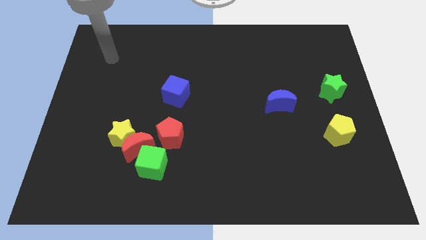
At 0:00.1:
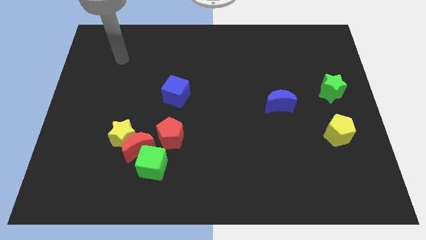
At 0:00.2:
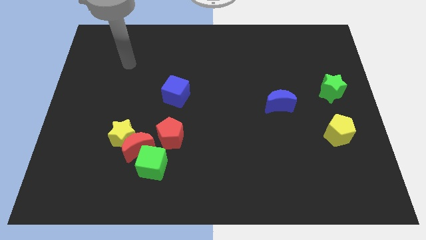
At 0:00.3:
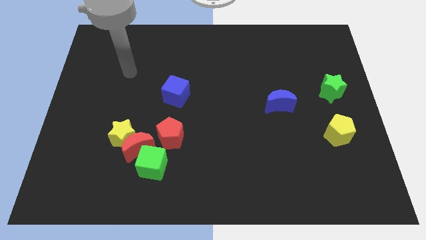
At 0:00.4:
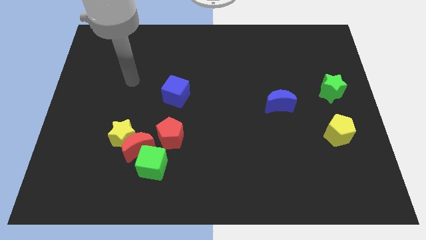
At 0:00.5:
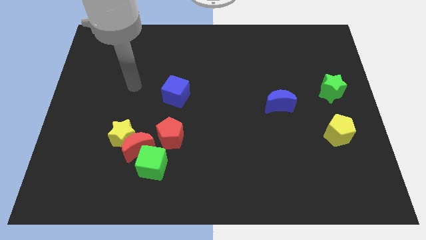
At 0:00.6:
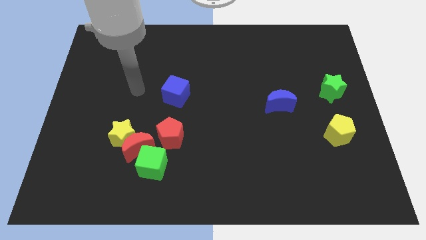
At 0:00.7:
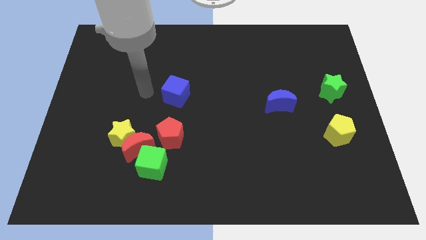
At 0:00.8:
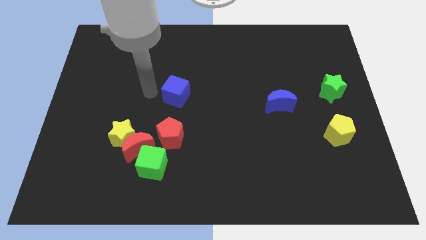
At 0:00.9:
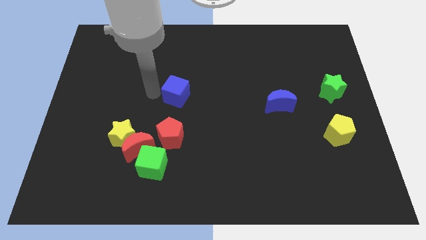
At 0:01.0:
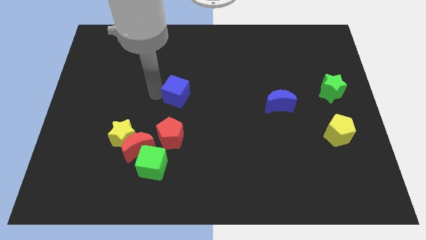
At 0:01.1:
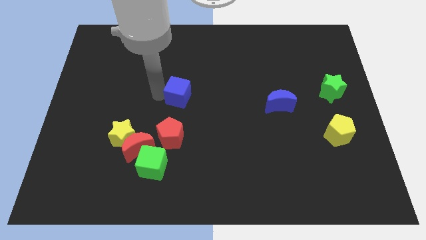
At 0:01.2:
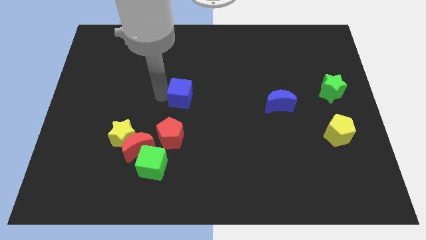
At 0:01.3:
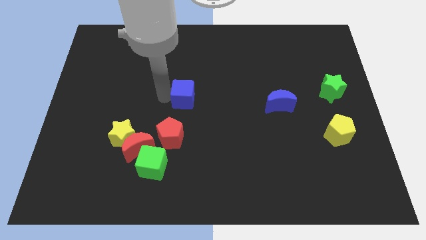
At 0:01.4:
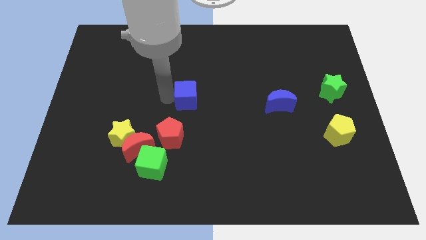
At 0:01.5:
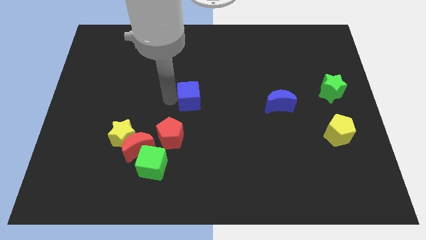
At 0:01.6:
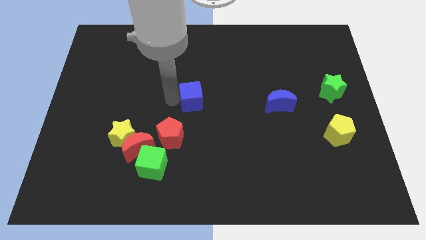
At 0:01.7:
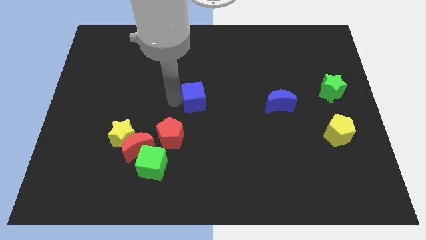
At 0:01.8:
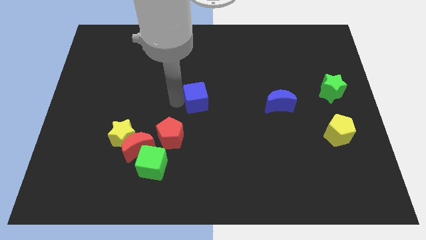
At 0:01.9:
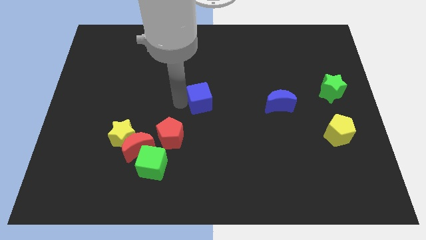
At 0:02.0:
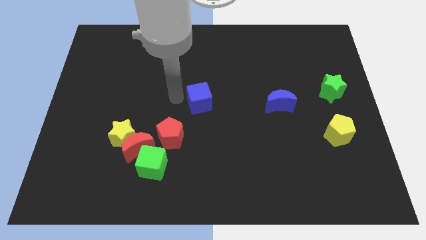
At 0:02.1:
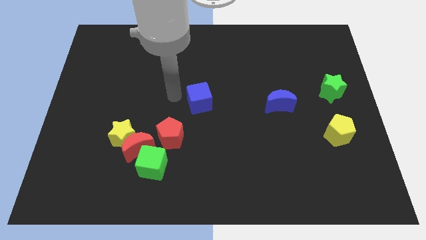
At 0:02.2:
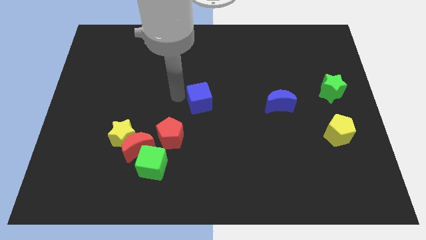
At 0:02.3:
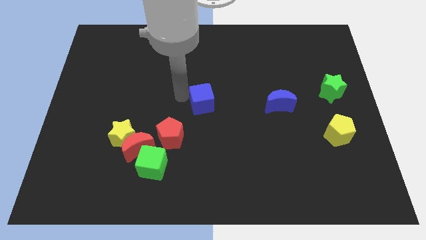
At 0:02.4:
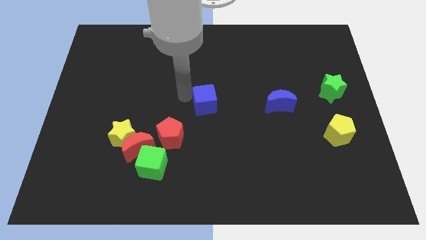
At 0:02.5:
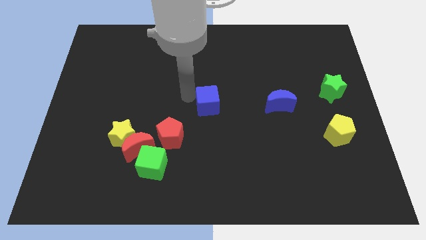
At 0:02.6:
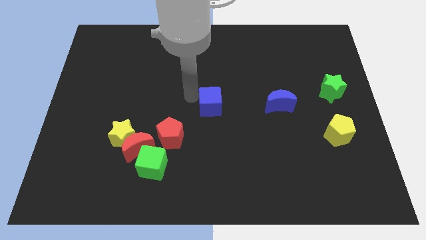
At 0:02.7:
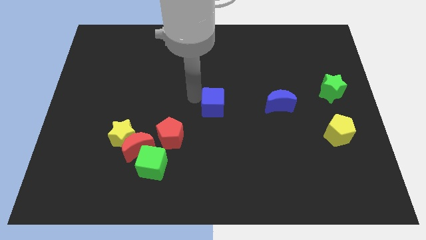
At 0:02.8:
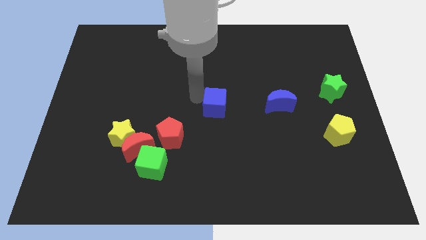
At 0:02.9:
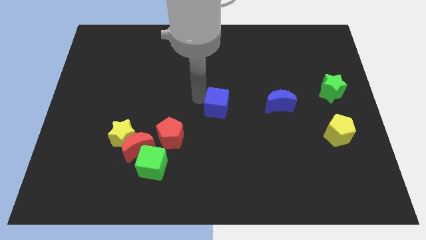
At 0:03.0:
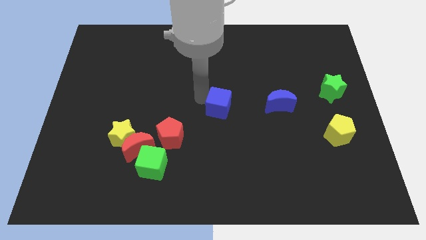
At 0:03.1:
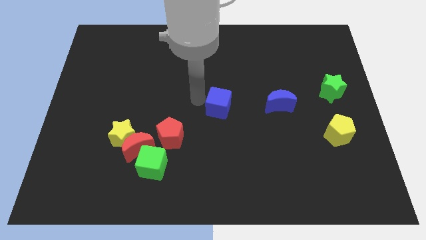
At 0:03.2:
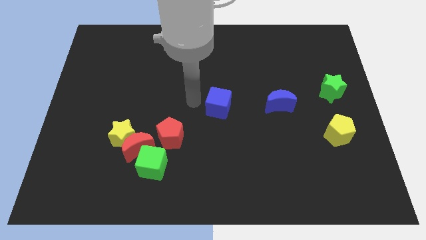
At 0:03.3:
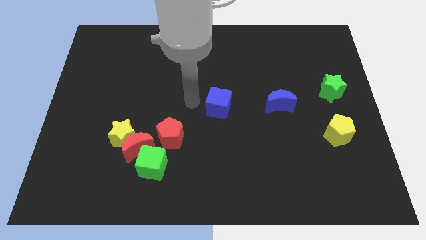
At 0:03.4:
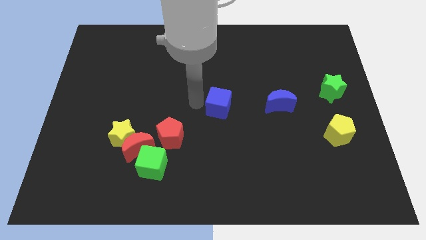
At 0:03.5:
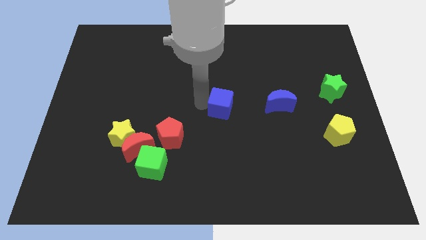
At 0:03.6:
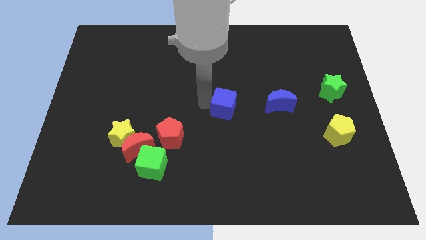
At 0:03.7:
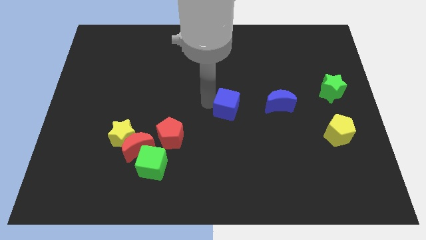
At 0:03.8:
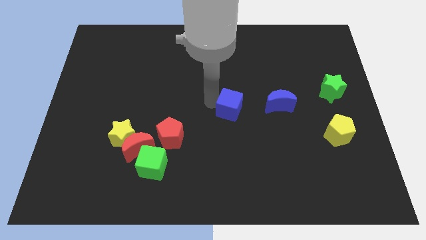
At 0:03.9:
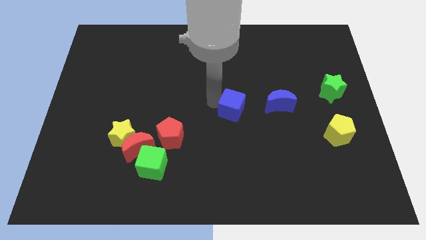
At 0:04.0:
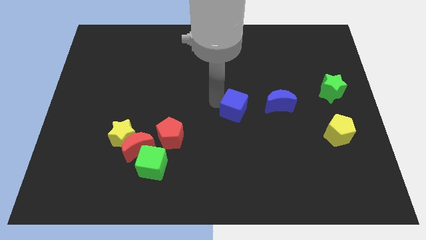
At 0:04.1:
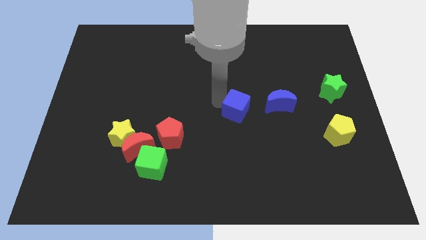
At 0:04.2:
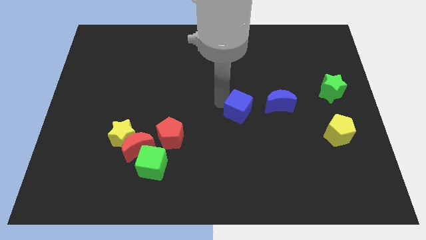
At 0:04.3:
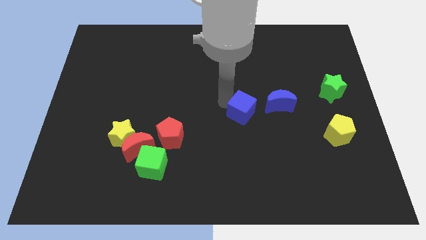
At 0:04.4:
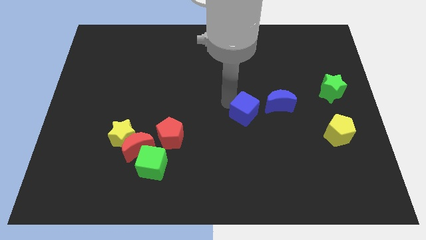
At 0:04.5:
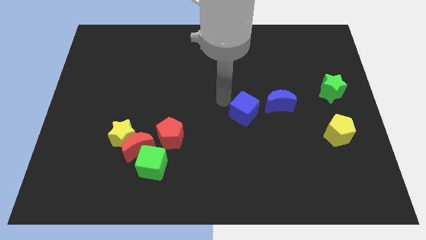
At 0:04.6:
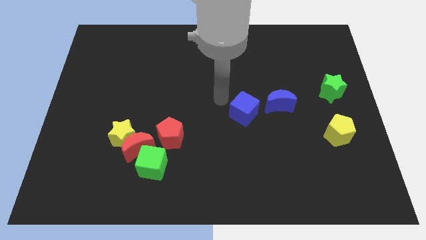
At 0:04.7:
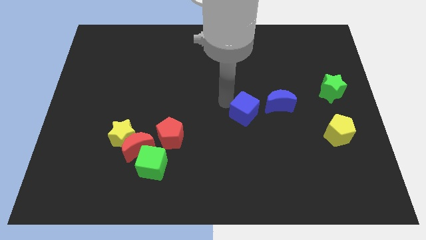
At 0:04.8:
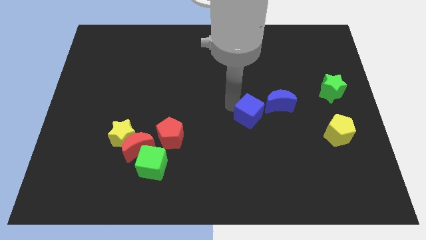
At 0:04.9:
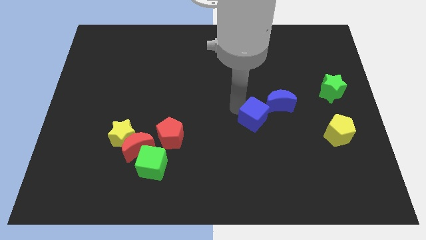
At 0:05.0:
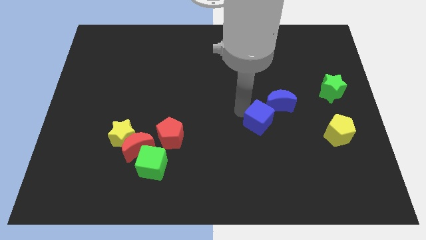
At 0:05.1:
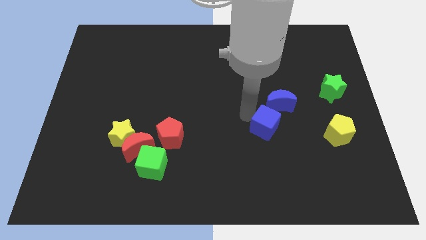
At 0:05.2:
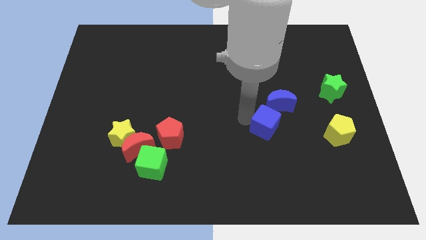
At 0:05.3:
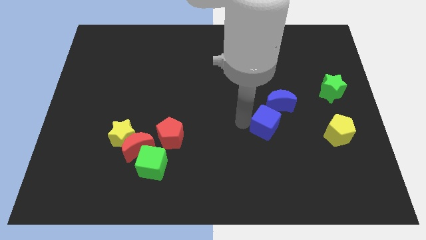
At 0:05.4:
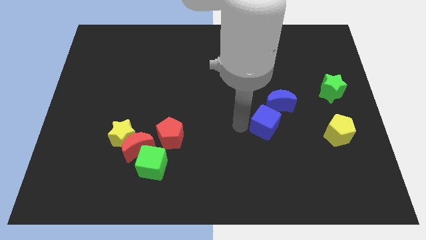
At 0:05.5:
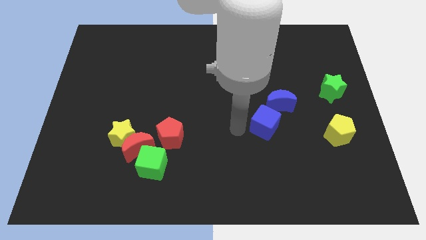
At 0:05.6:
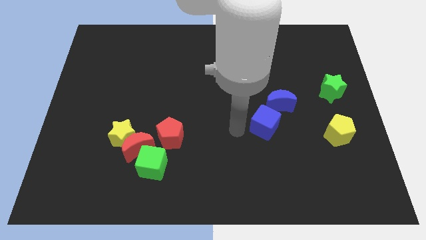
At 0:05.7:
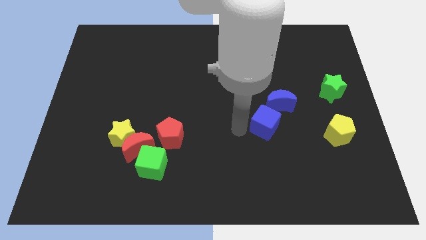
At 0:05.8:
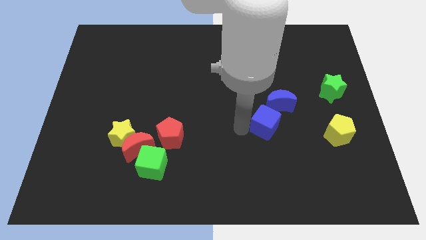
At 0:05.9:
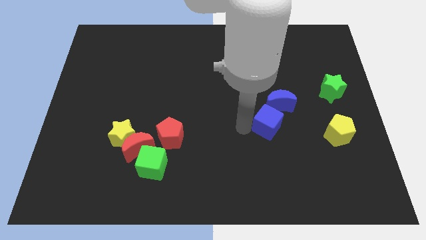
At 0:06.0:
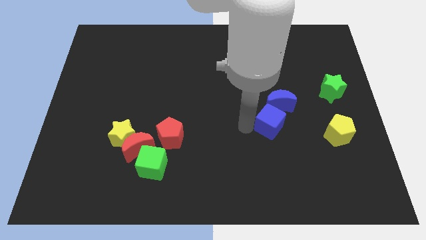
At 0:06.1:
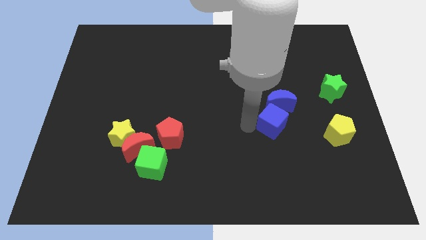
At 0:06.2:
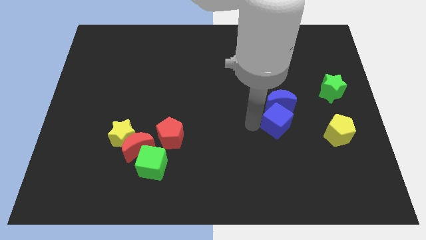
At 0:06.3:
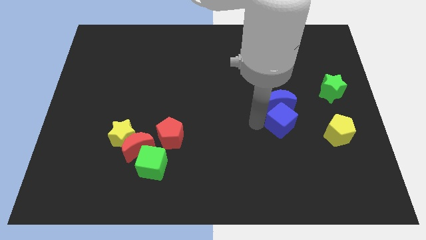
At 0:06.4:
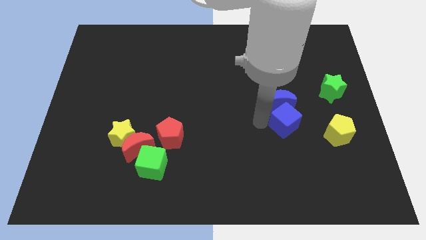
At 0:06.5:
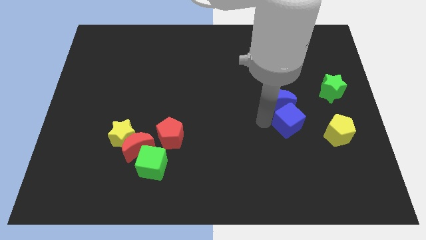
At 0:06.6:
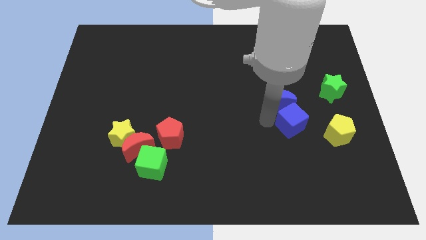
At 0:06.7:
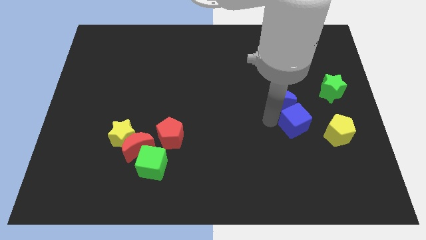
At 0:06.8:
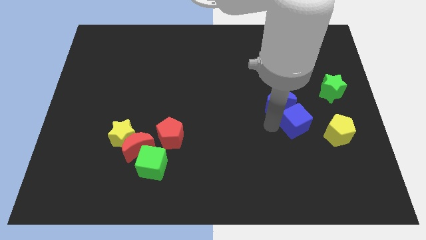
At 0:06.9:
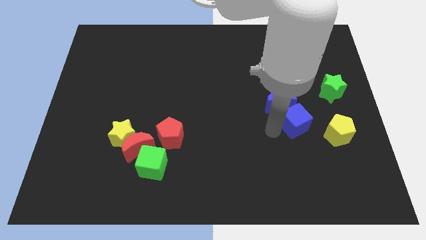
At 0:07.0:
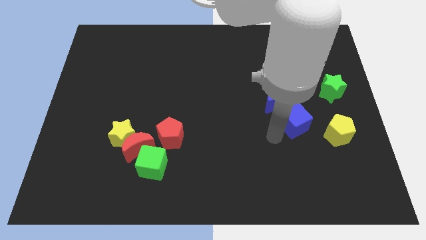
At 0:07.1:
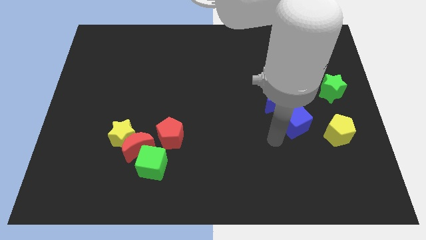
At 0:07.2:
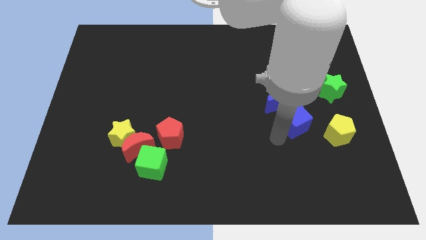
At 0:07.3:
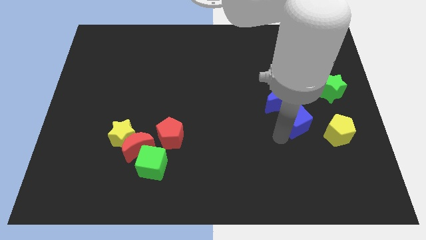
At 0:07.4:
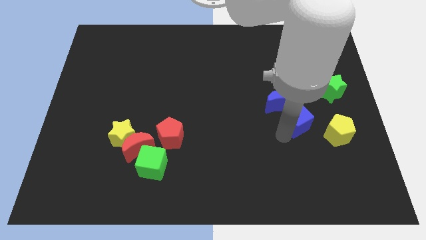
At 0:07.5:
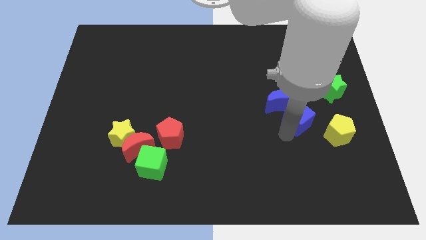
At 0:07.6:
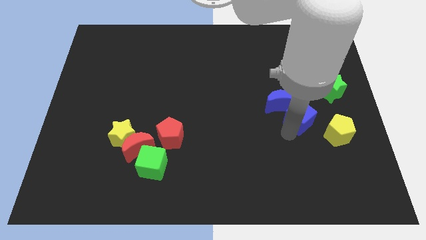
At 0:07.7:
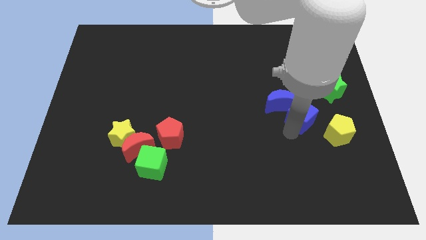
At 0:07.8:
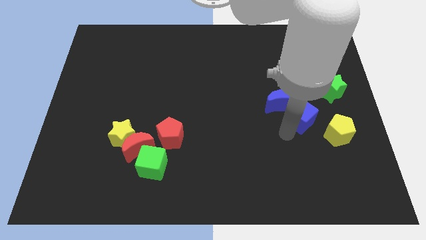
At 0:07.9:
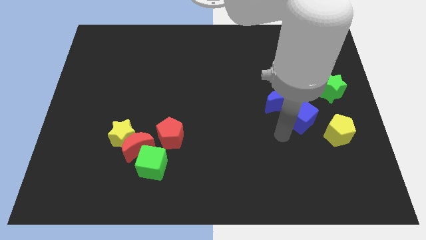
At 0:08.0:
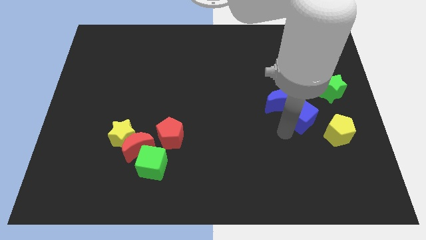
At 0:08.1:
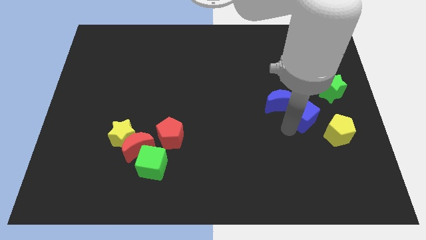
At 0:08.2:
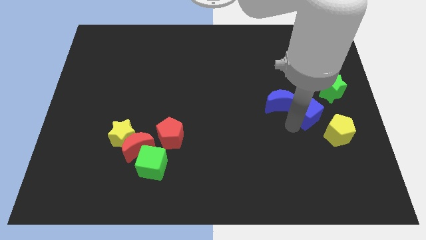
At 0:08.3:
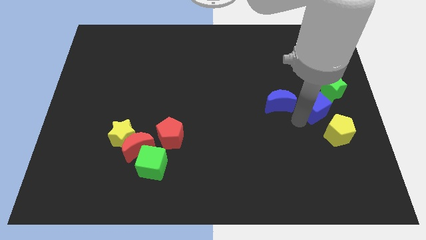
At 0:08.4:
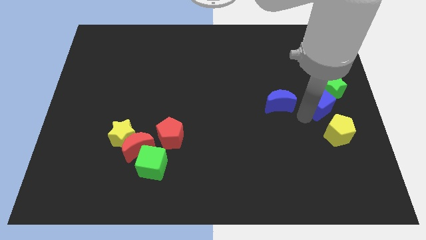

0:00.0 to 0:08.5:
put the blue cube to the green star
